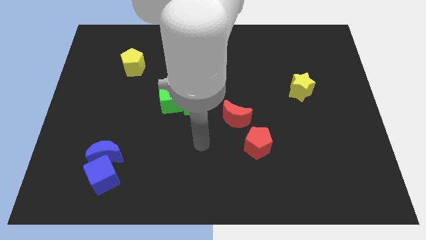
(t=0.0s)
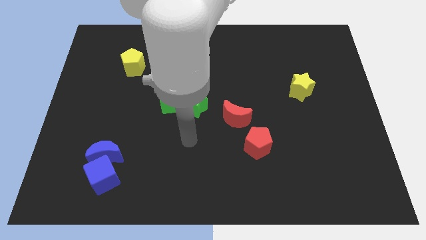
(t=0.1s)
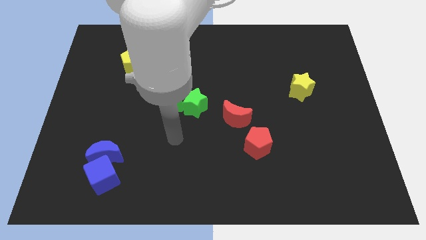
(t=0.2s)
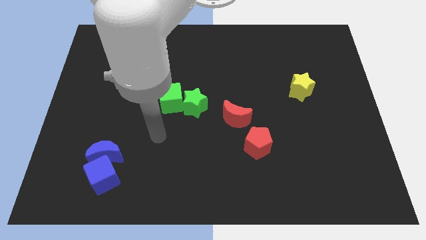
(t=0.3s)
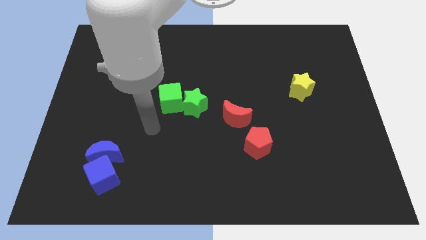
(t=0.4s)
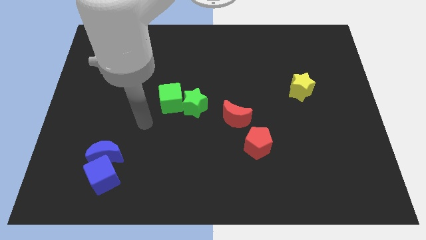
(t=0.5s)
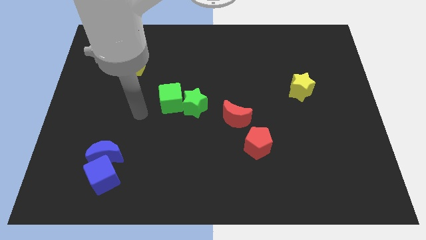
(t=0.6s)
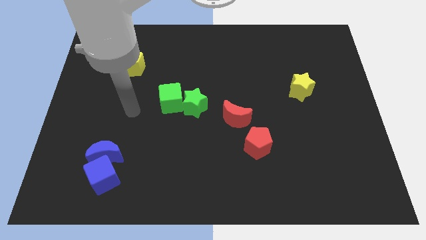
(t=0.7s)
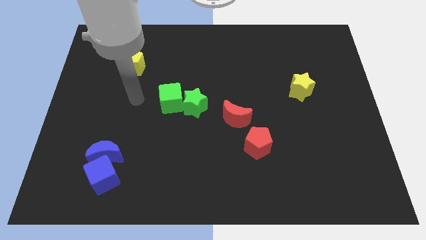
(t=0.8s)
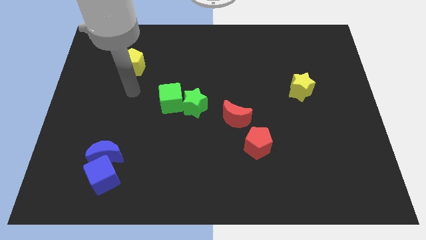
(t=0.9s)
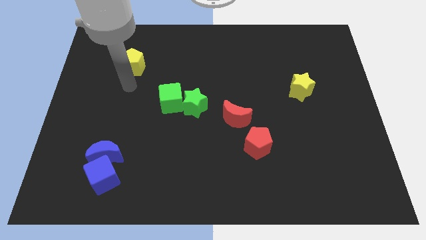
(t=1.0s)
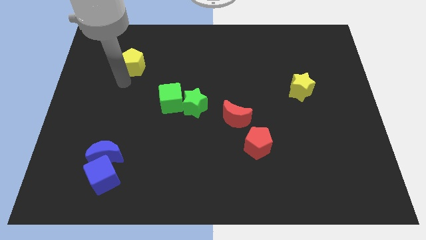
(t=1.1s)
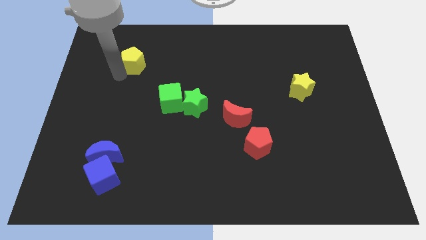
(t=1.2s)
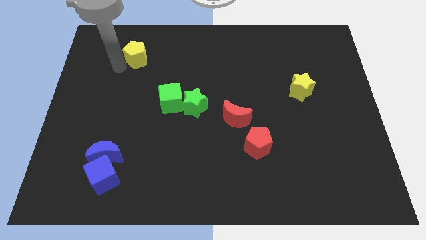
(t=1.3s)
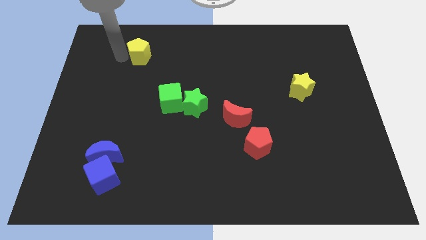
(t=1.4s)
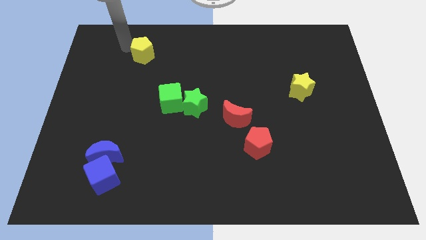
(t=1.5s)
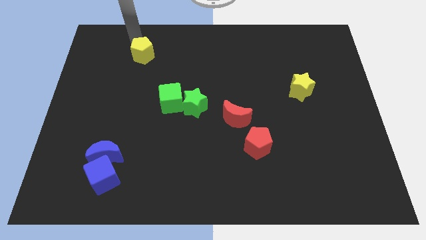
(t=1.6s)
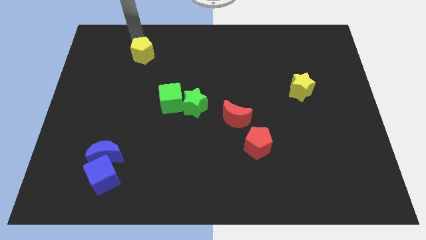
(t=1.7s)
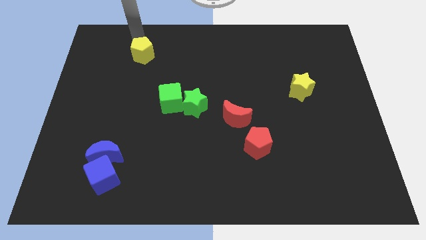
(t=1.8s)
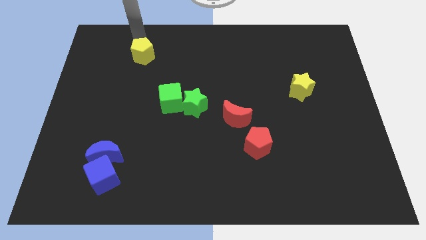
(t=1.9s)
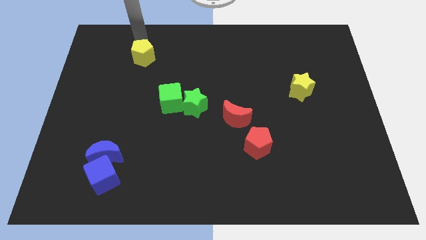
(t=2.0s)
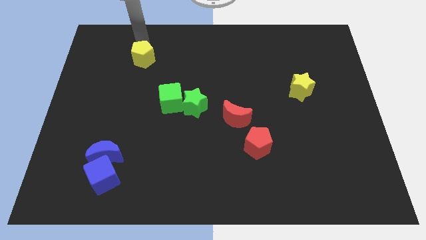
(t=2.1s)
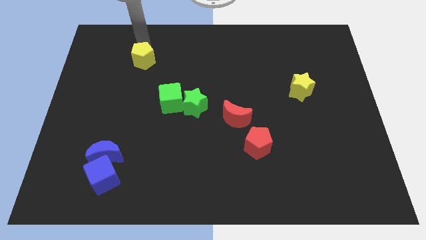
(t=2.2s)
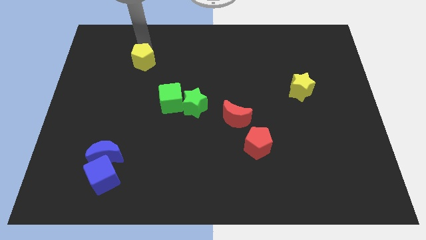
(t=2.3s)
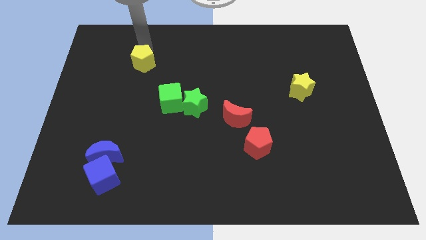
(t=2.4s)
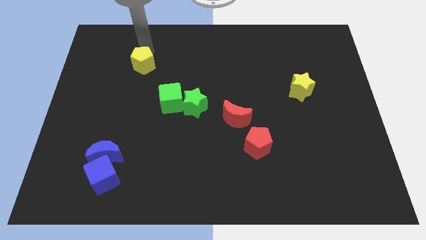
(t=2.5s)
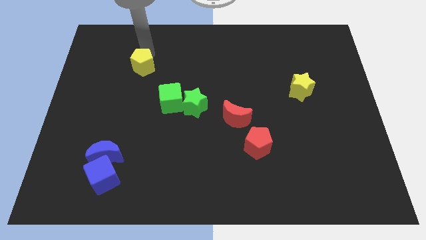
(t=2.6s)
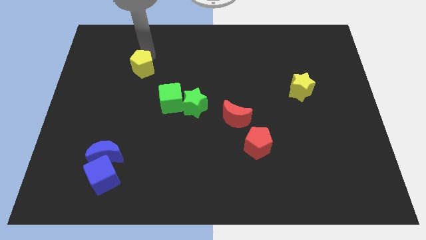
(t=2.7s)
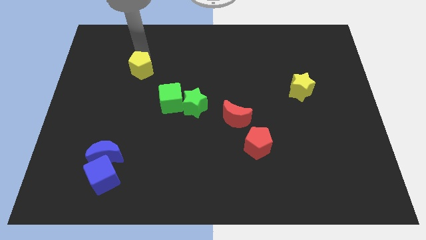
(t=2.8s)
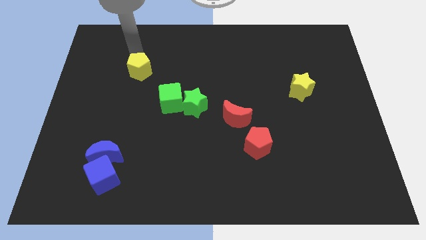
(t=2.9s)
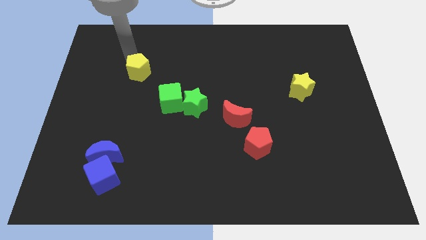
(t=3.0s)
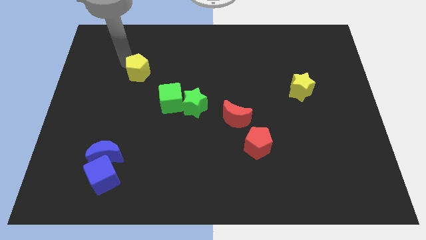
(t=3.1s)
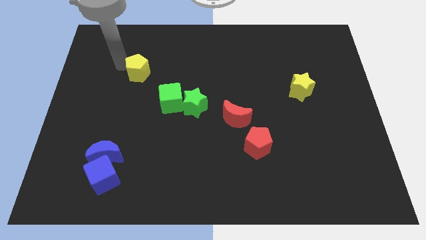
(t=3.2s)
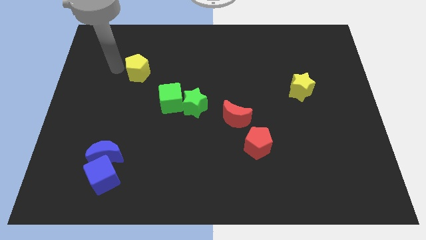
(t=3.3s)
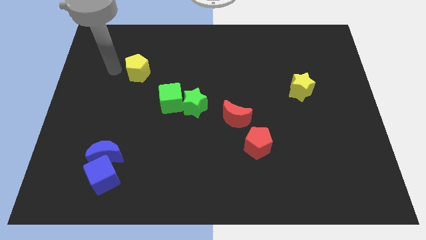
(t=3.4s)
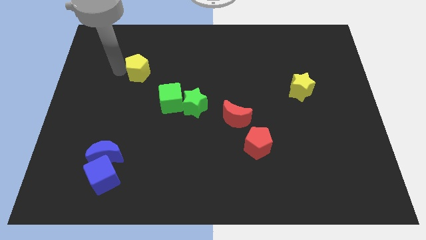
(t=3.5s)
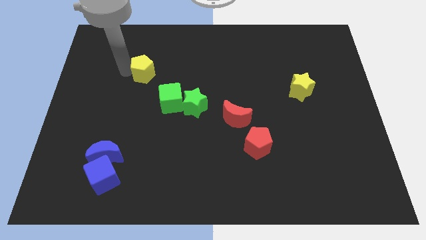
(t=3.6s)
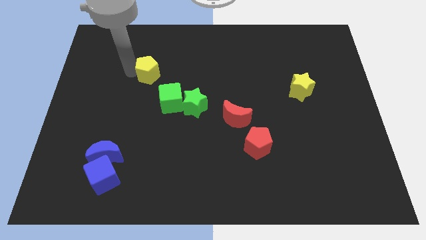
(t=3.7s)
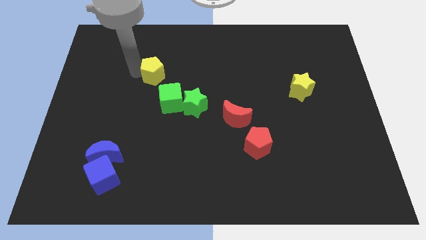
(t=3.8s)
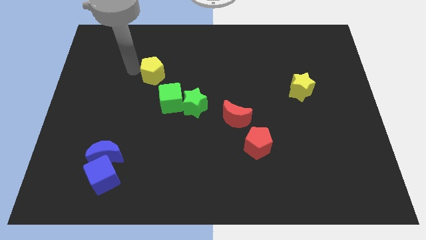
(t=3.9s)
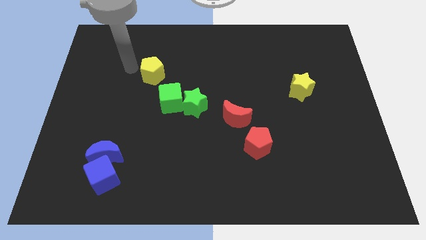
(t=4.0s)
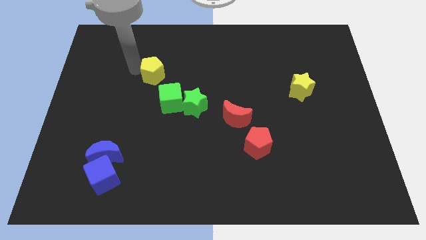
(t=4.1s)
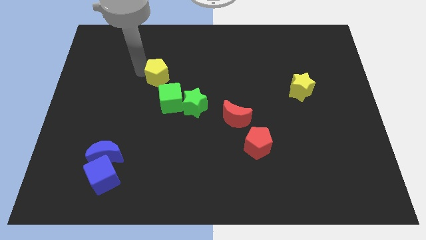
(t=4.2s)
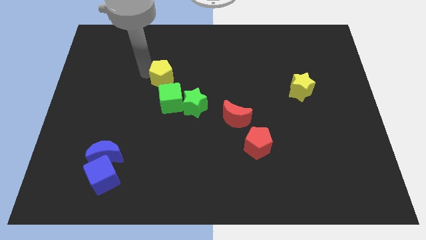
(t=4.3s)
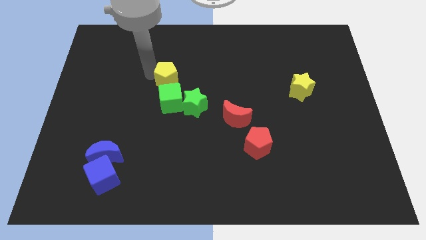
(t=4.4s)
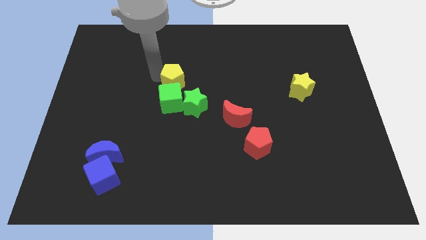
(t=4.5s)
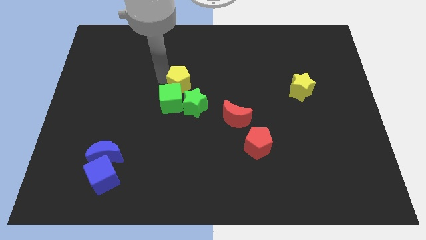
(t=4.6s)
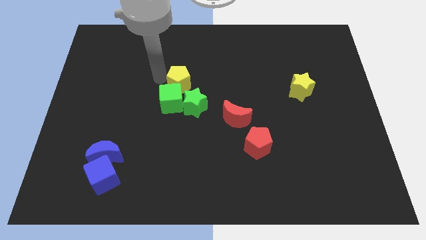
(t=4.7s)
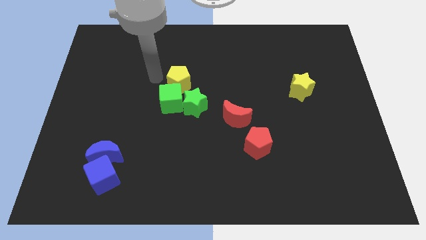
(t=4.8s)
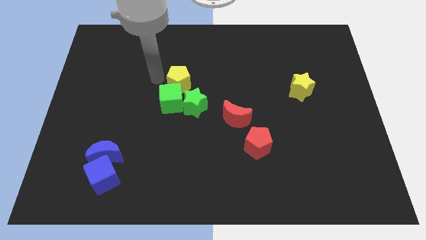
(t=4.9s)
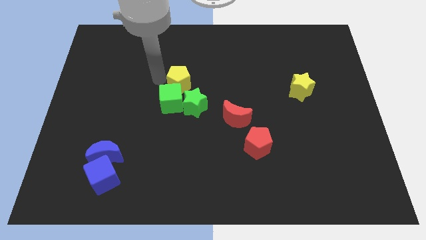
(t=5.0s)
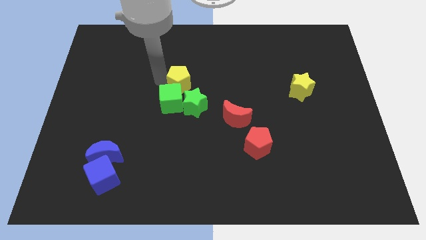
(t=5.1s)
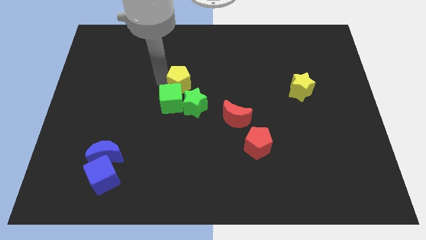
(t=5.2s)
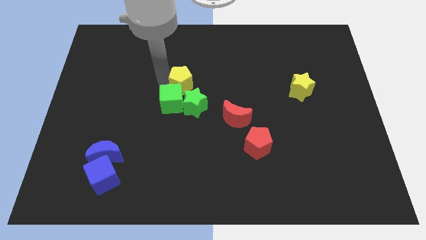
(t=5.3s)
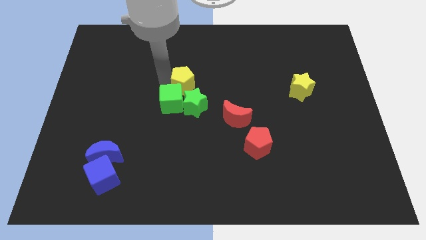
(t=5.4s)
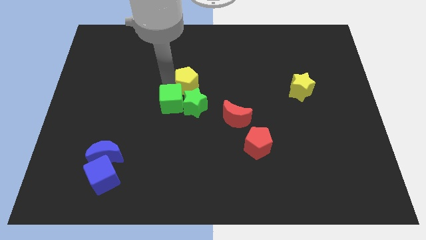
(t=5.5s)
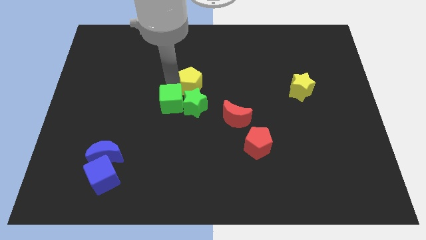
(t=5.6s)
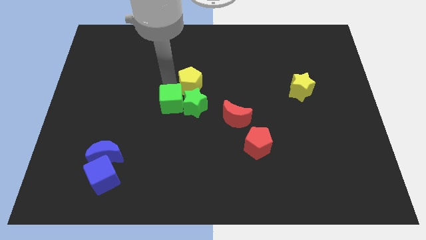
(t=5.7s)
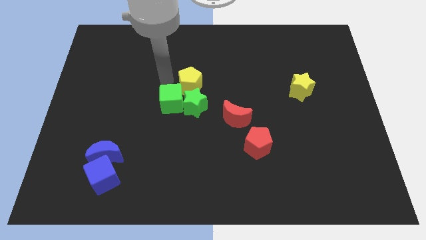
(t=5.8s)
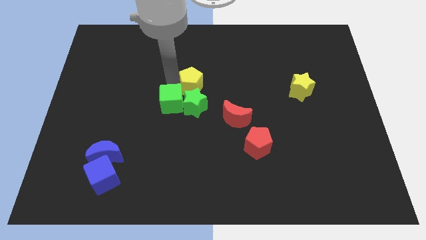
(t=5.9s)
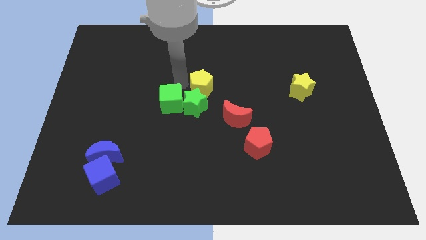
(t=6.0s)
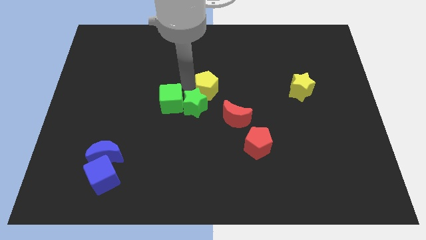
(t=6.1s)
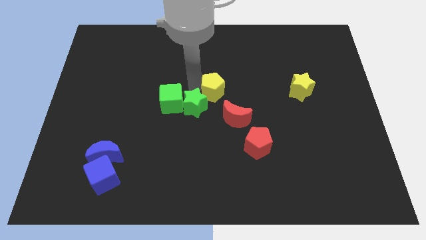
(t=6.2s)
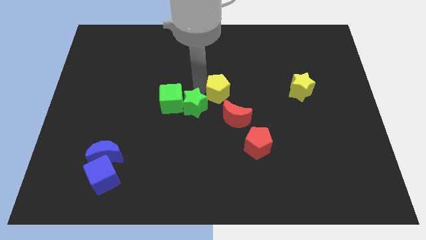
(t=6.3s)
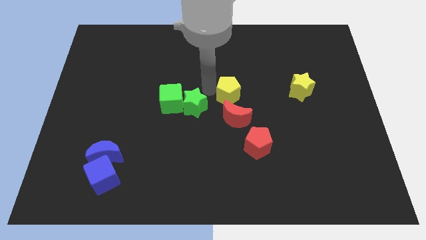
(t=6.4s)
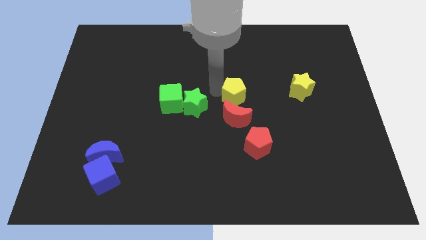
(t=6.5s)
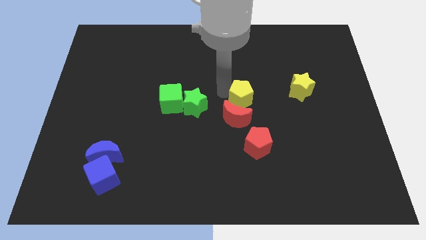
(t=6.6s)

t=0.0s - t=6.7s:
push the yellow pentagon to the top side of the red pentagon

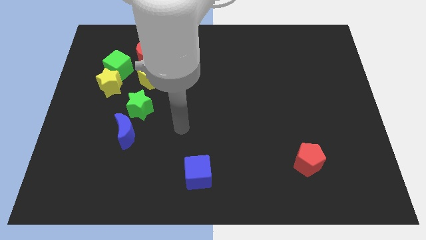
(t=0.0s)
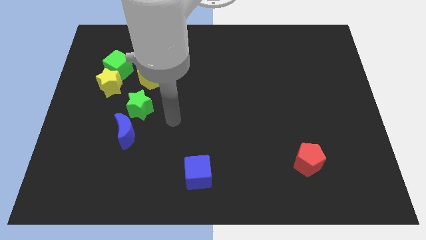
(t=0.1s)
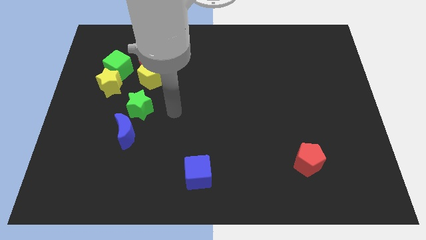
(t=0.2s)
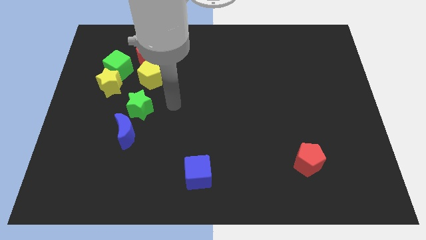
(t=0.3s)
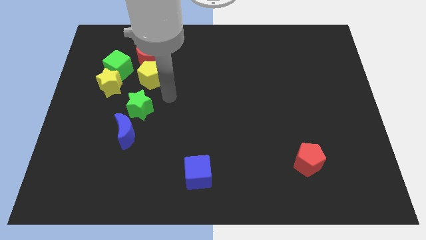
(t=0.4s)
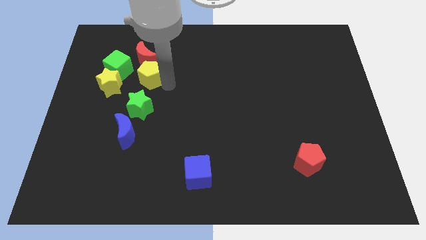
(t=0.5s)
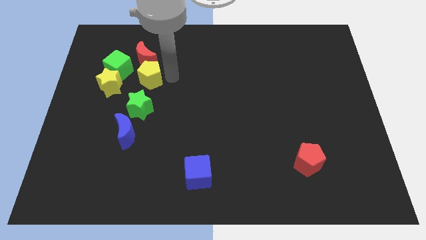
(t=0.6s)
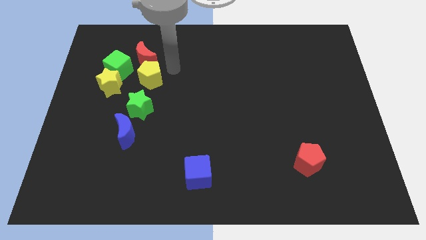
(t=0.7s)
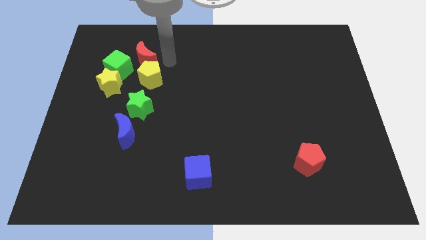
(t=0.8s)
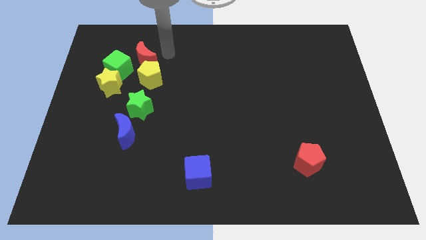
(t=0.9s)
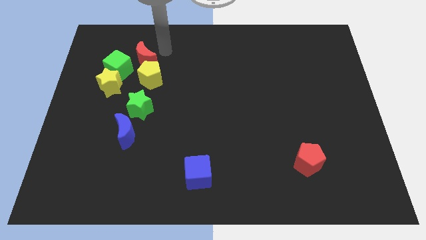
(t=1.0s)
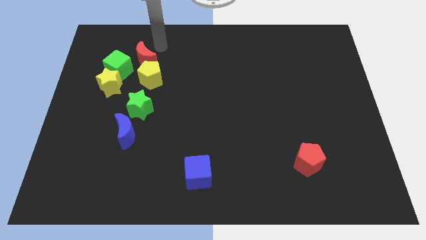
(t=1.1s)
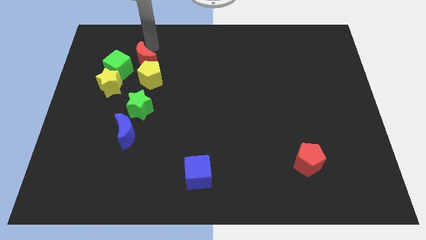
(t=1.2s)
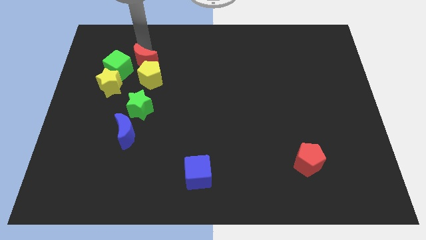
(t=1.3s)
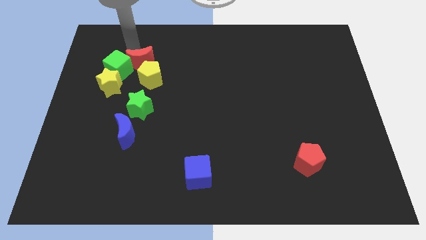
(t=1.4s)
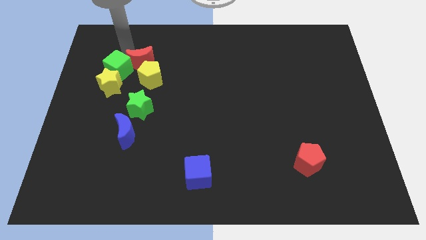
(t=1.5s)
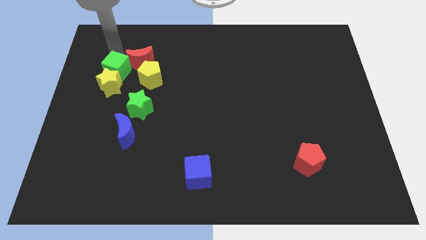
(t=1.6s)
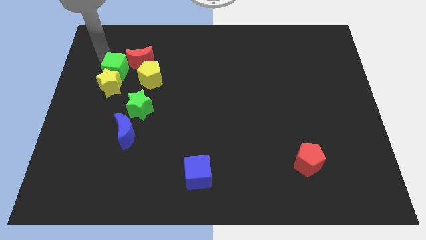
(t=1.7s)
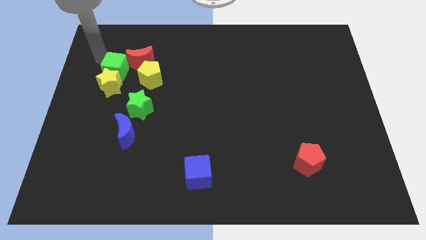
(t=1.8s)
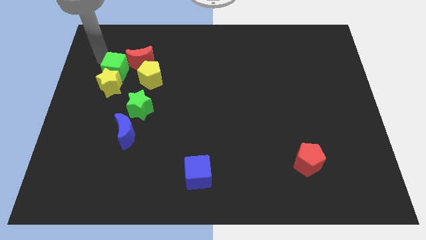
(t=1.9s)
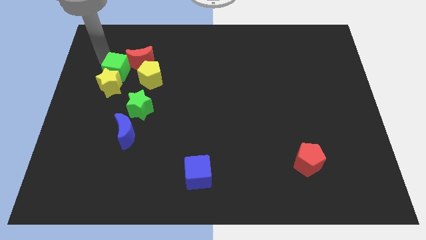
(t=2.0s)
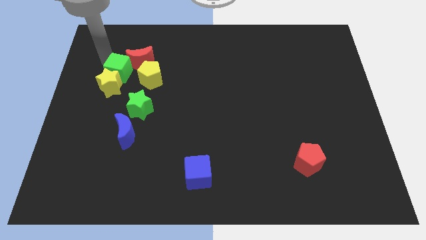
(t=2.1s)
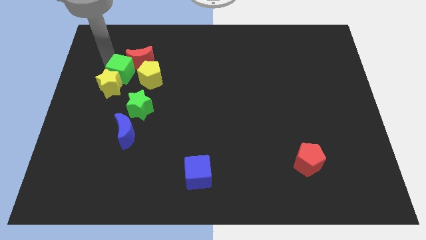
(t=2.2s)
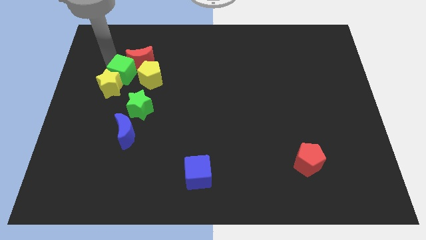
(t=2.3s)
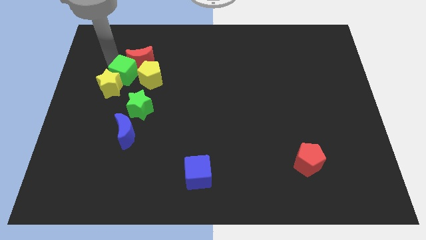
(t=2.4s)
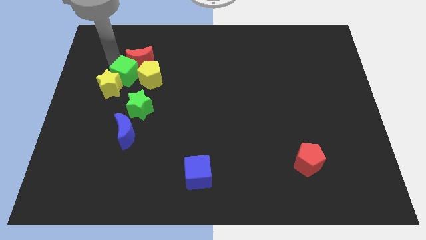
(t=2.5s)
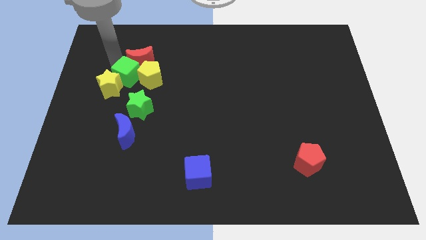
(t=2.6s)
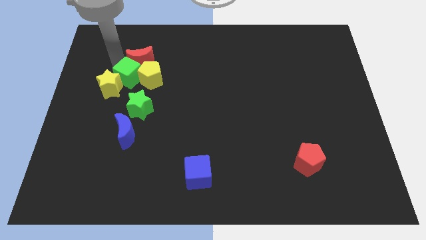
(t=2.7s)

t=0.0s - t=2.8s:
push the green cube to the top left of the green star
